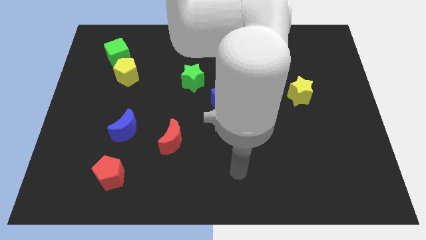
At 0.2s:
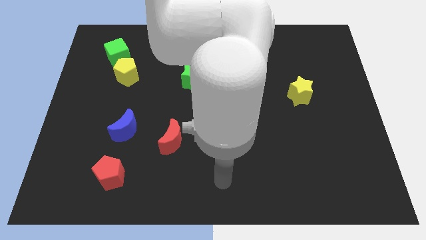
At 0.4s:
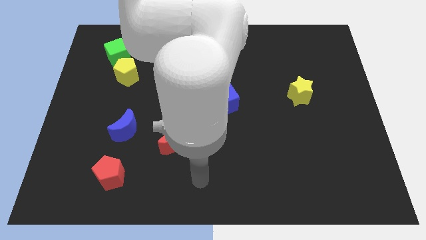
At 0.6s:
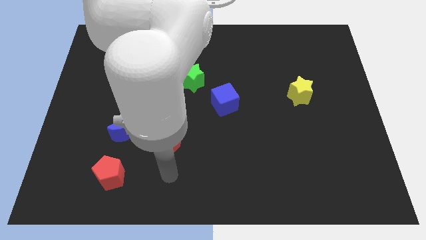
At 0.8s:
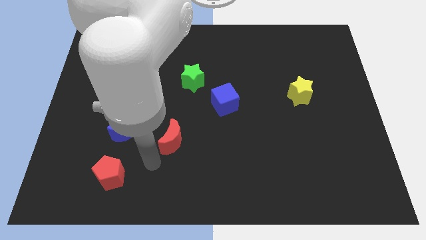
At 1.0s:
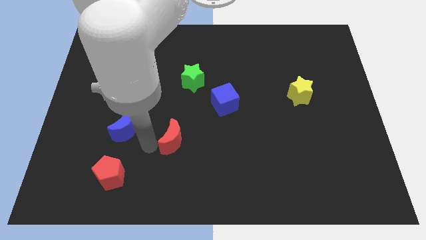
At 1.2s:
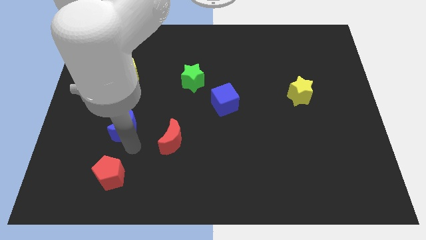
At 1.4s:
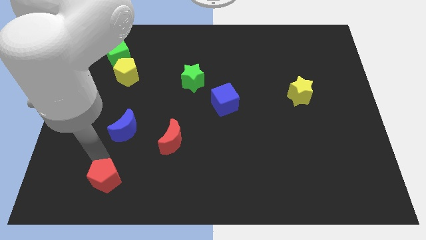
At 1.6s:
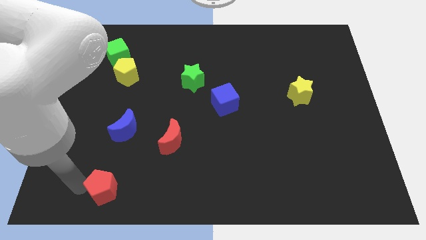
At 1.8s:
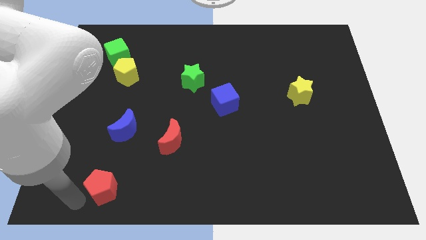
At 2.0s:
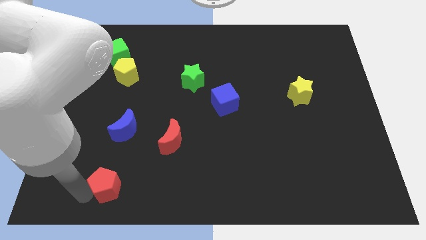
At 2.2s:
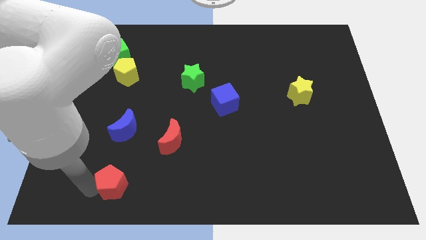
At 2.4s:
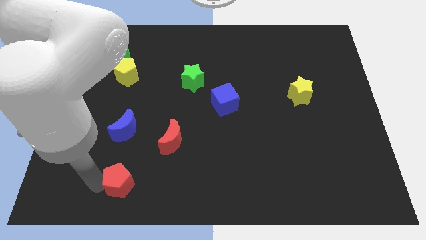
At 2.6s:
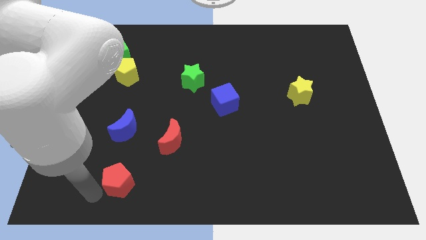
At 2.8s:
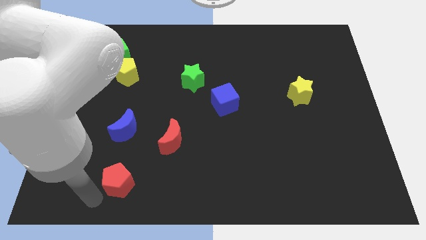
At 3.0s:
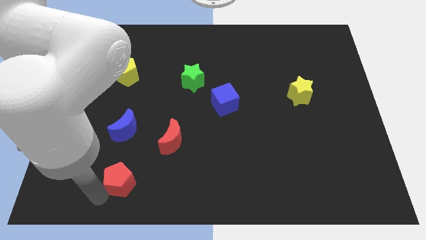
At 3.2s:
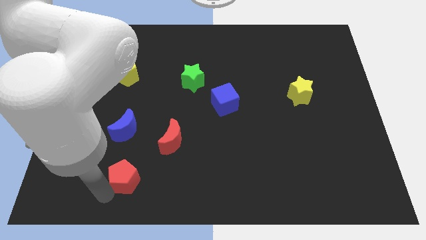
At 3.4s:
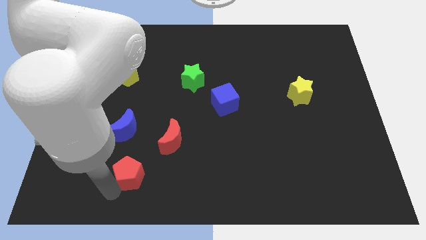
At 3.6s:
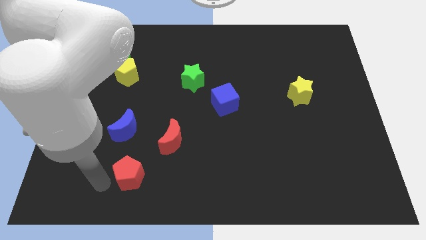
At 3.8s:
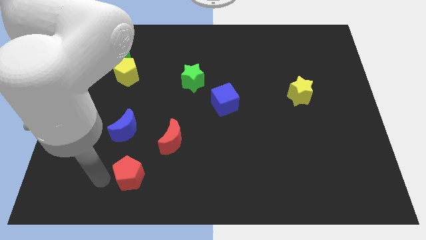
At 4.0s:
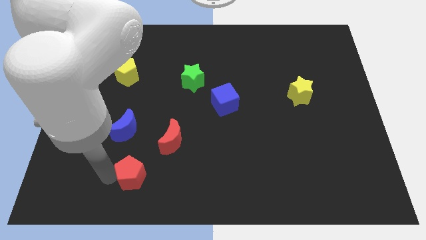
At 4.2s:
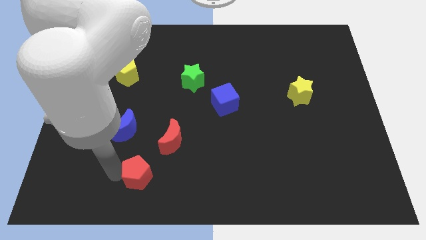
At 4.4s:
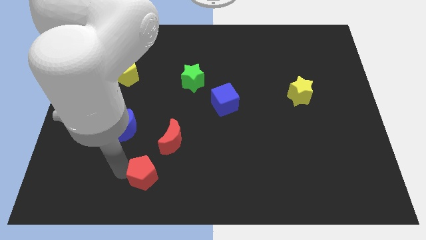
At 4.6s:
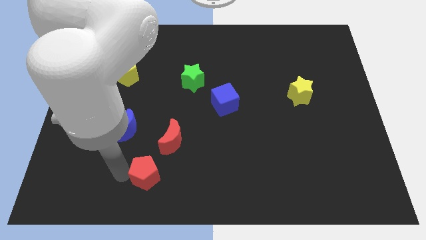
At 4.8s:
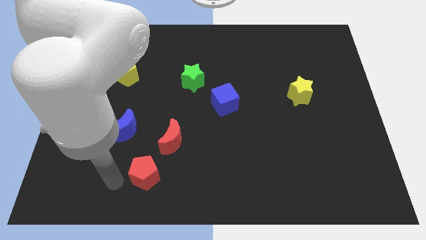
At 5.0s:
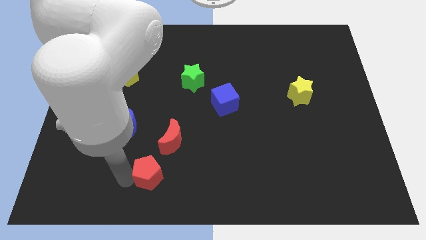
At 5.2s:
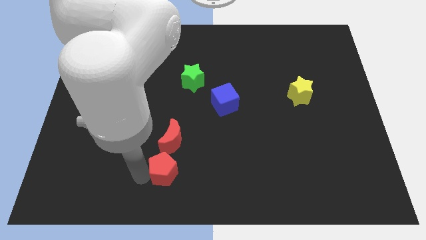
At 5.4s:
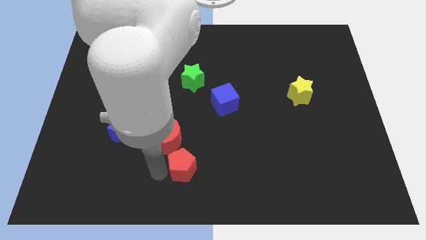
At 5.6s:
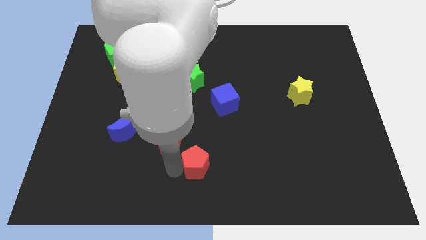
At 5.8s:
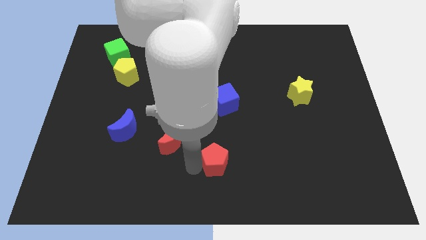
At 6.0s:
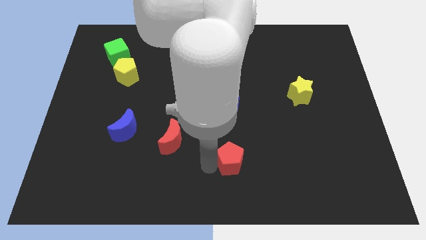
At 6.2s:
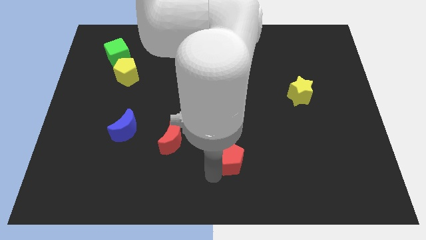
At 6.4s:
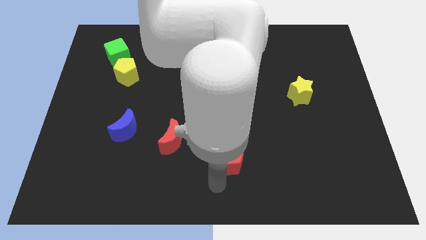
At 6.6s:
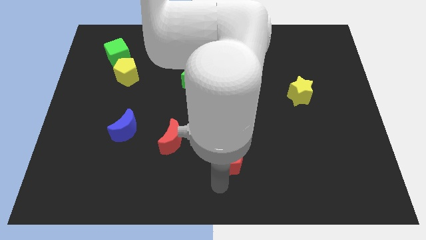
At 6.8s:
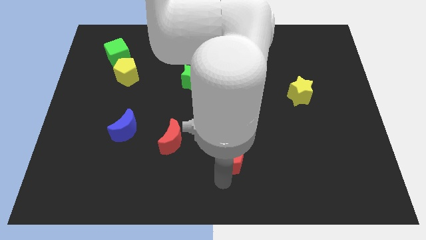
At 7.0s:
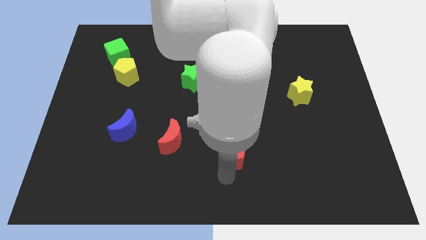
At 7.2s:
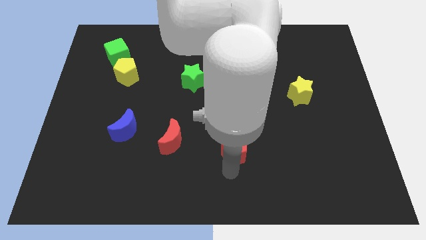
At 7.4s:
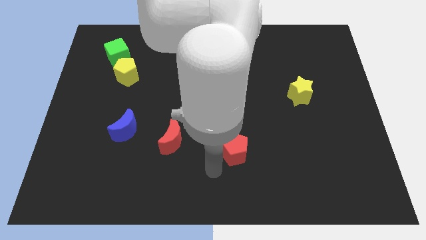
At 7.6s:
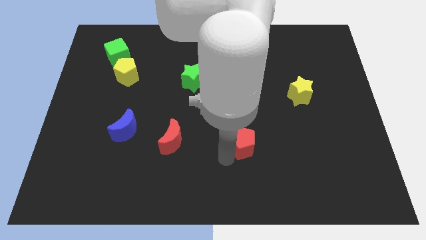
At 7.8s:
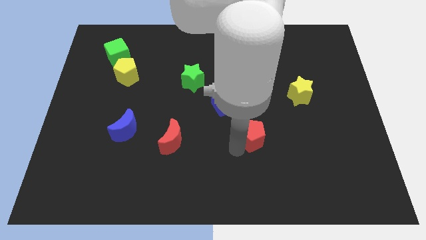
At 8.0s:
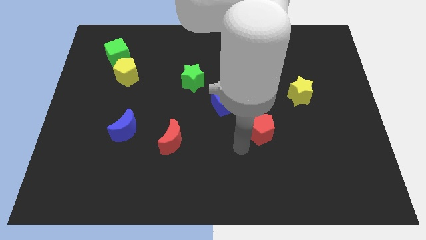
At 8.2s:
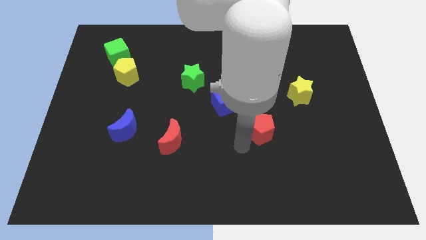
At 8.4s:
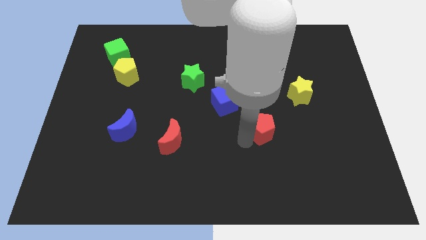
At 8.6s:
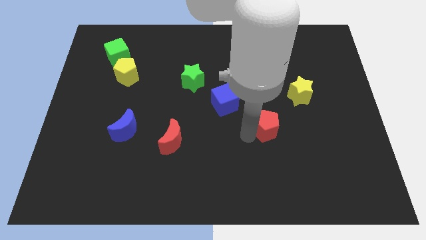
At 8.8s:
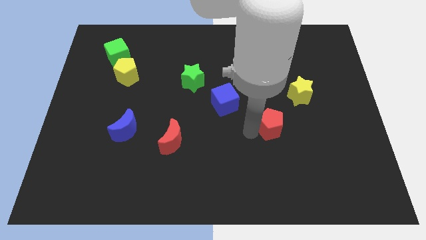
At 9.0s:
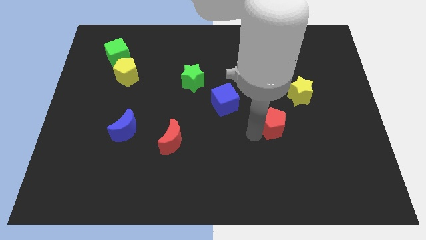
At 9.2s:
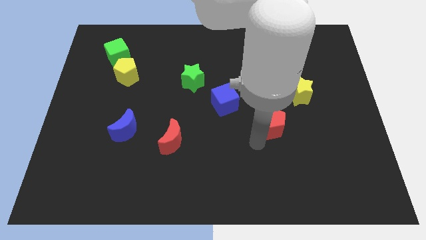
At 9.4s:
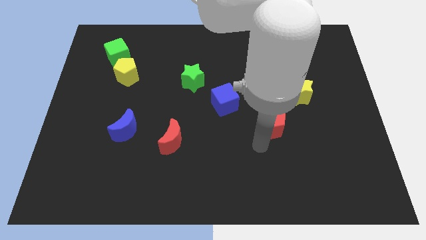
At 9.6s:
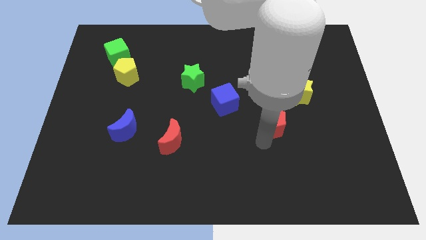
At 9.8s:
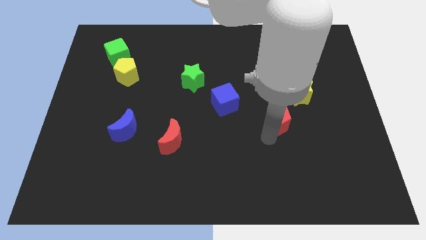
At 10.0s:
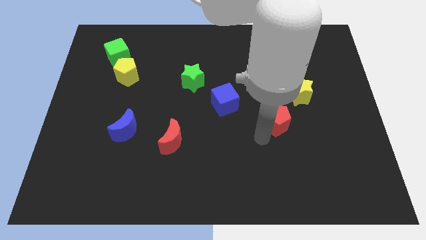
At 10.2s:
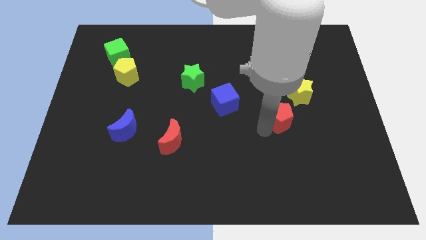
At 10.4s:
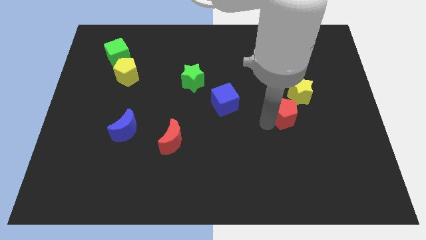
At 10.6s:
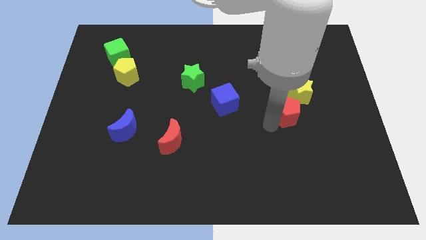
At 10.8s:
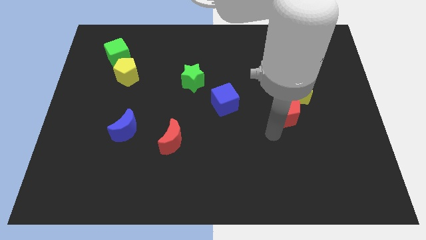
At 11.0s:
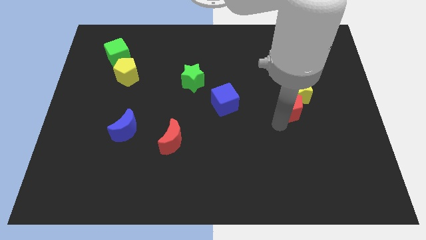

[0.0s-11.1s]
put the red pentagon to the yellow star

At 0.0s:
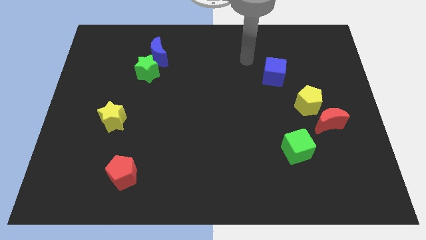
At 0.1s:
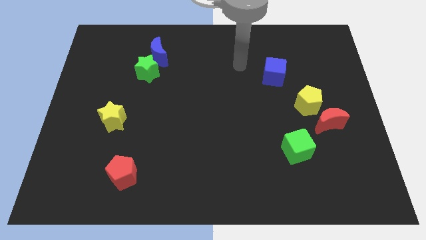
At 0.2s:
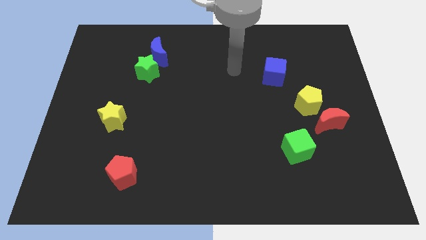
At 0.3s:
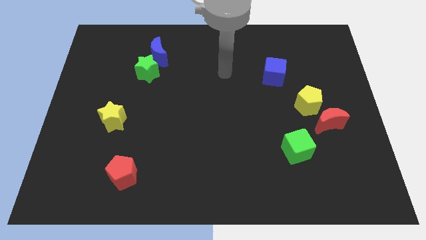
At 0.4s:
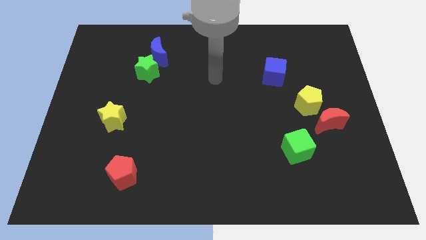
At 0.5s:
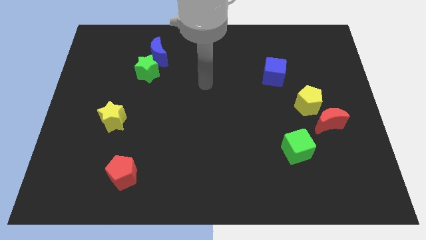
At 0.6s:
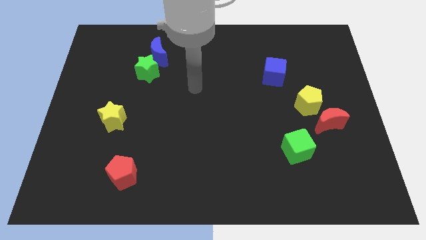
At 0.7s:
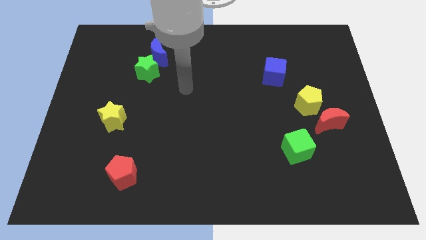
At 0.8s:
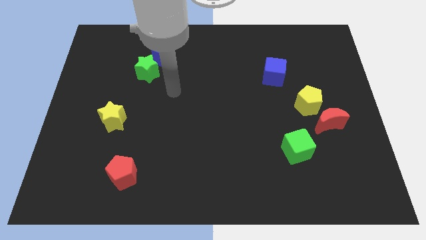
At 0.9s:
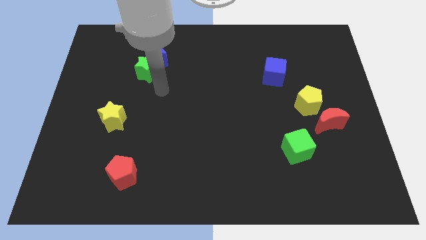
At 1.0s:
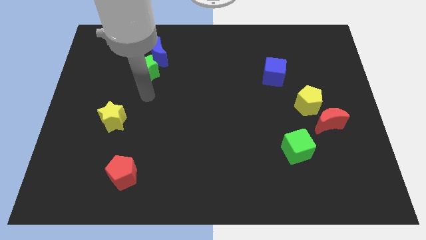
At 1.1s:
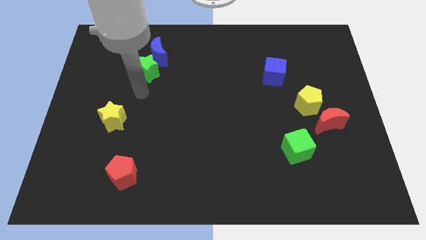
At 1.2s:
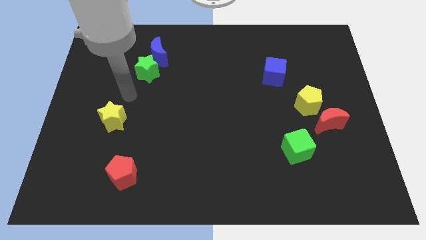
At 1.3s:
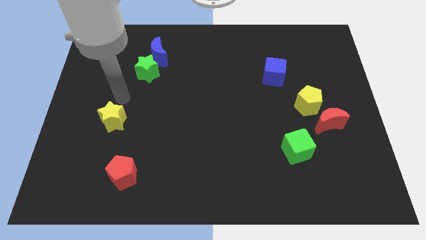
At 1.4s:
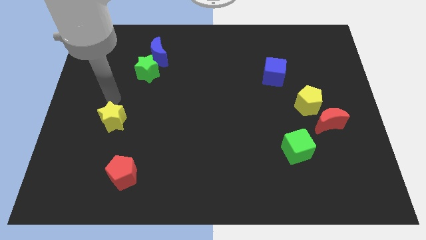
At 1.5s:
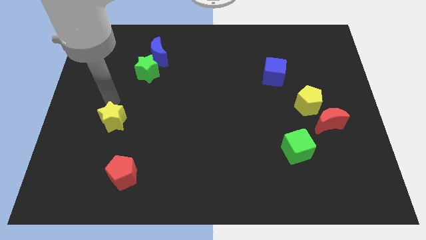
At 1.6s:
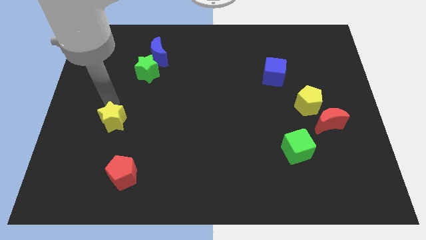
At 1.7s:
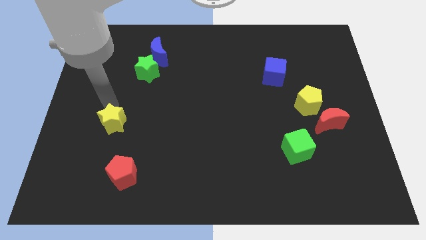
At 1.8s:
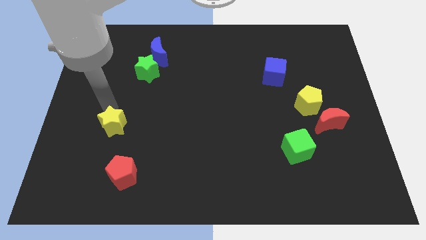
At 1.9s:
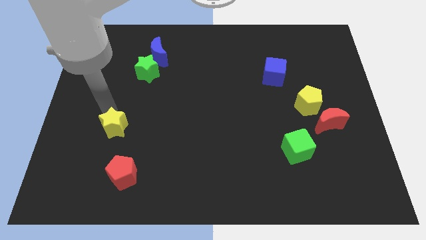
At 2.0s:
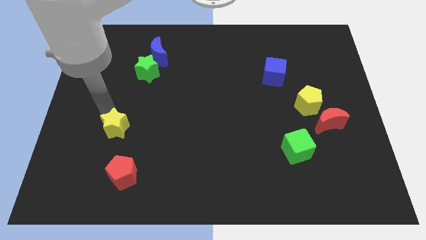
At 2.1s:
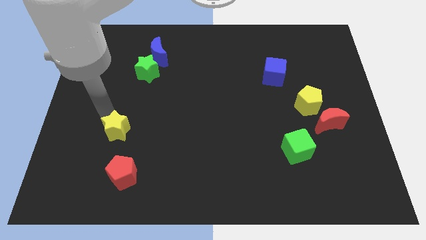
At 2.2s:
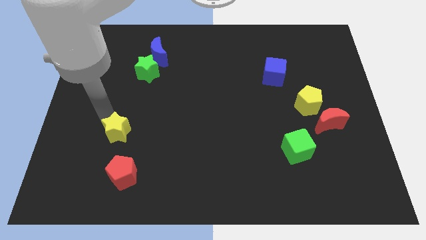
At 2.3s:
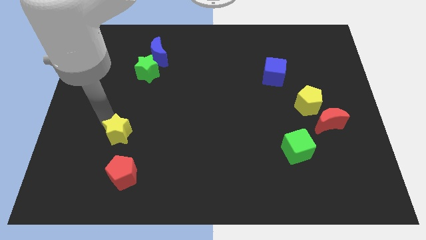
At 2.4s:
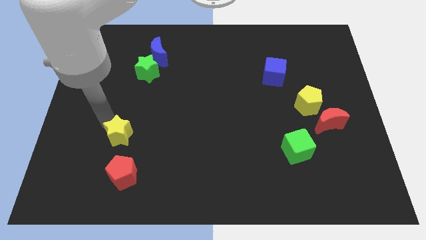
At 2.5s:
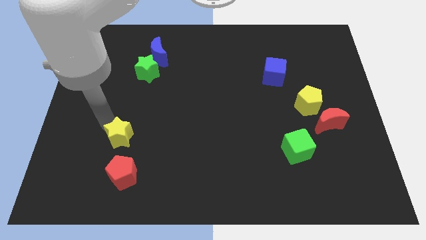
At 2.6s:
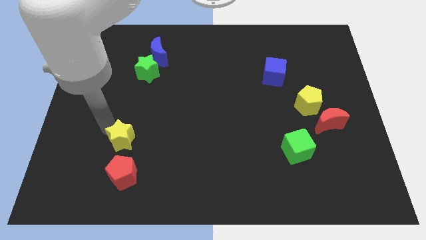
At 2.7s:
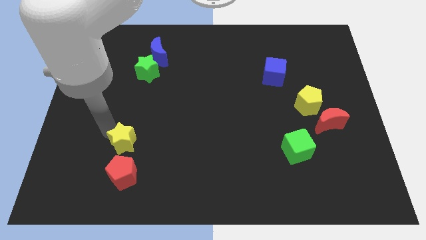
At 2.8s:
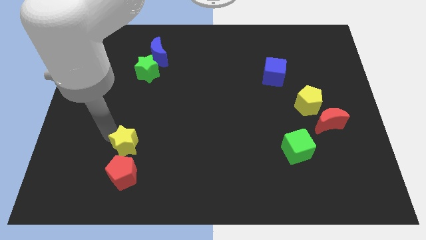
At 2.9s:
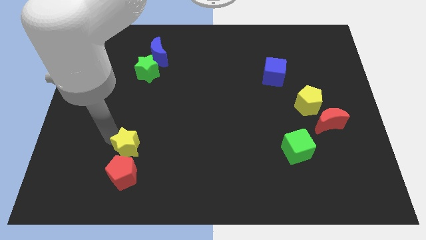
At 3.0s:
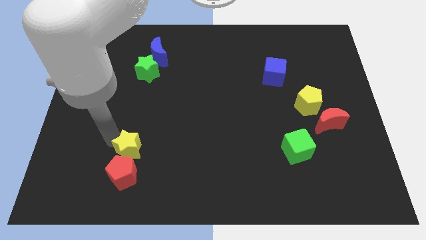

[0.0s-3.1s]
slide the yellow star next to the red pentagon
